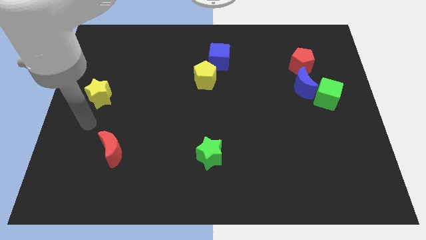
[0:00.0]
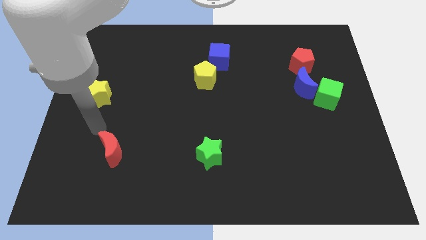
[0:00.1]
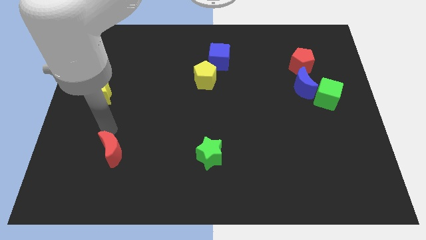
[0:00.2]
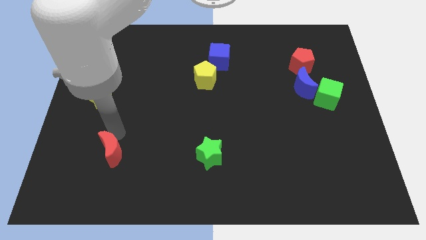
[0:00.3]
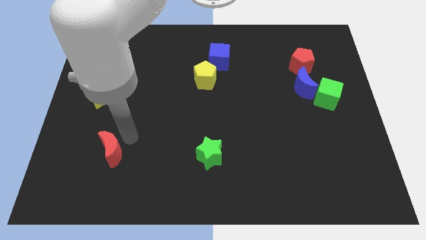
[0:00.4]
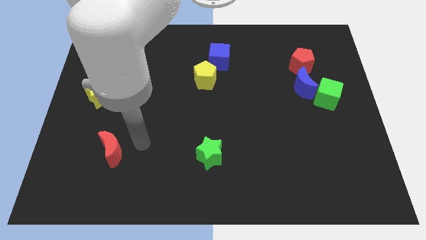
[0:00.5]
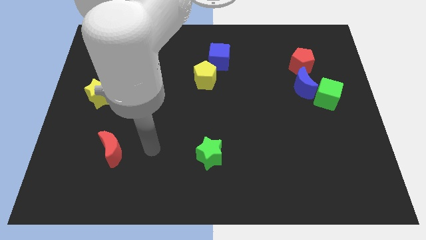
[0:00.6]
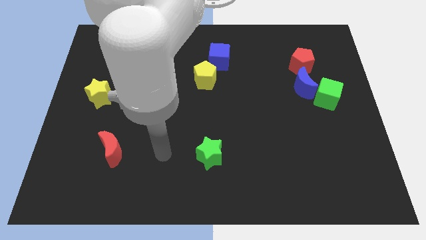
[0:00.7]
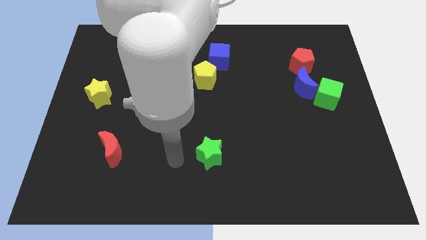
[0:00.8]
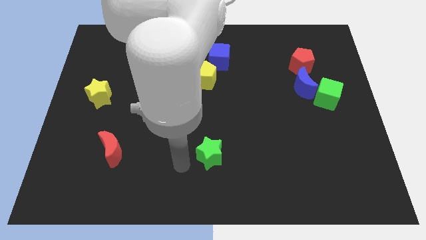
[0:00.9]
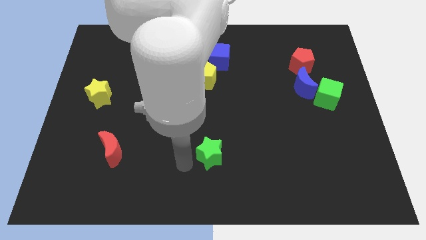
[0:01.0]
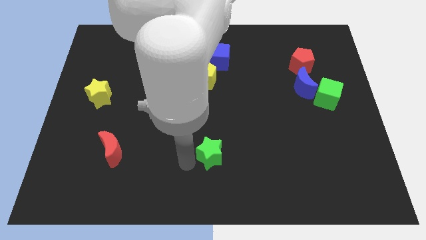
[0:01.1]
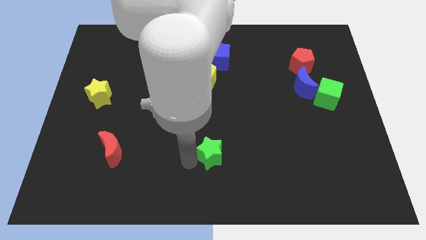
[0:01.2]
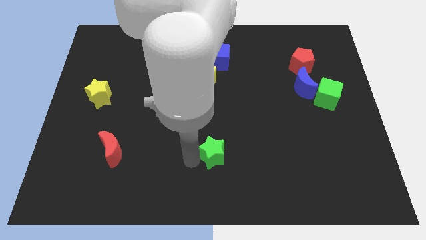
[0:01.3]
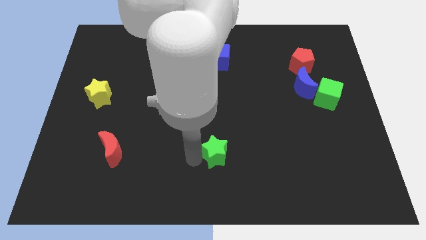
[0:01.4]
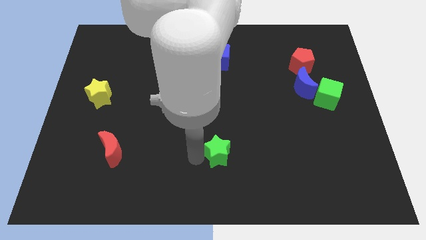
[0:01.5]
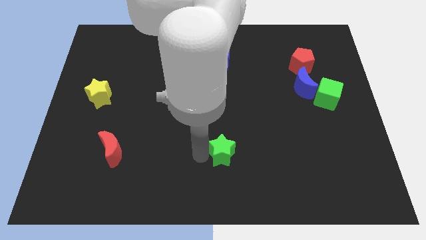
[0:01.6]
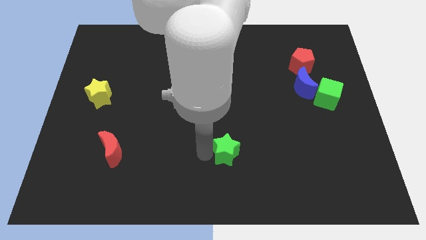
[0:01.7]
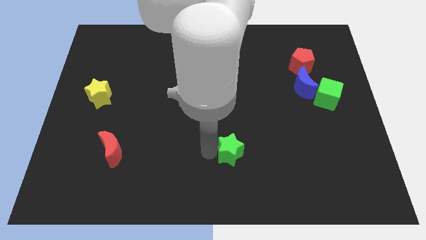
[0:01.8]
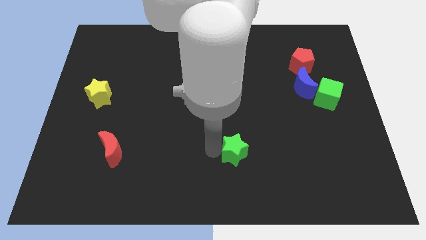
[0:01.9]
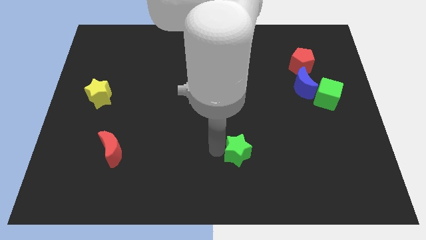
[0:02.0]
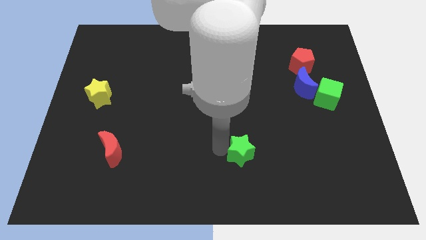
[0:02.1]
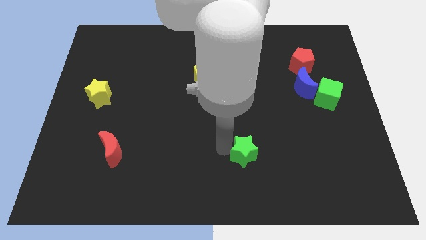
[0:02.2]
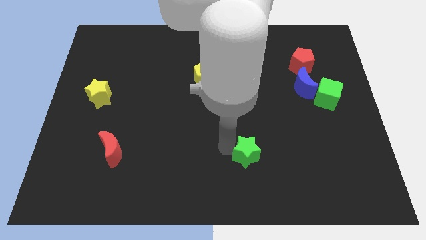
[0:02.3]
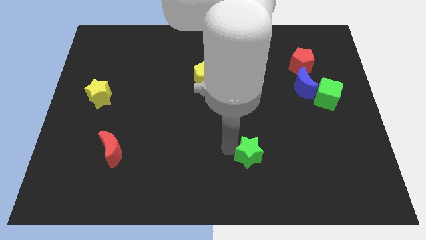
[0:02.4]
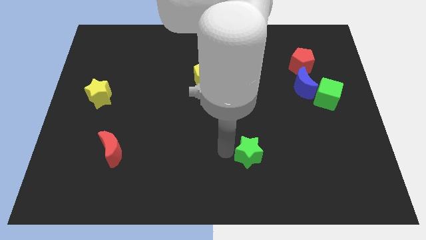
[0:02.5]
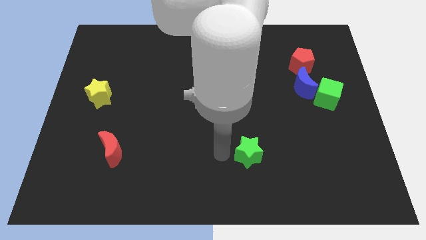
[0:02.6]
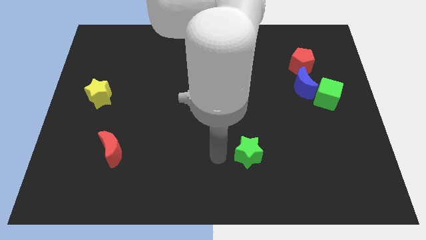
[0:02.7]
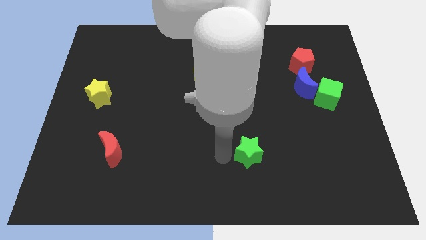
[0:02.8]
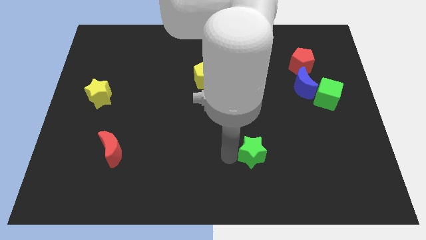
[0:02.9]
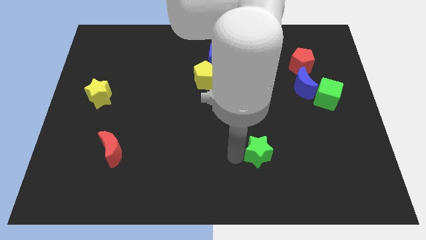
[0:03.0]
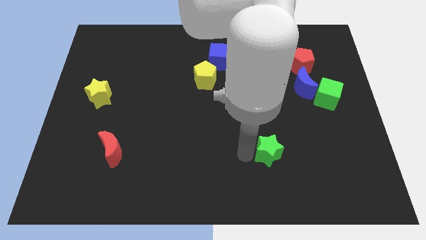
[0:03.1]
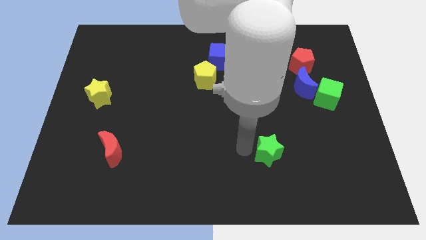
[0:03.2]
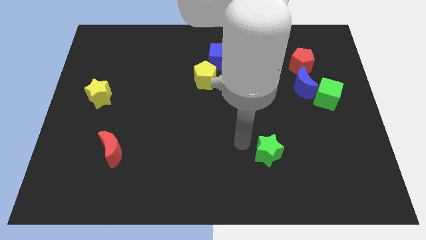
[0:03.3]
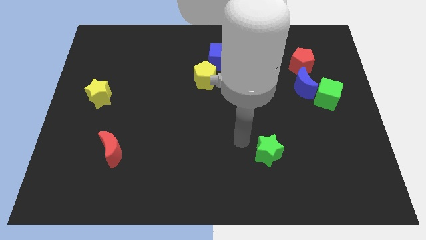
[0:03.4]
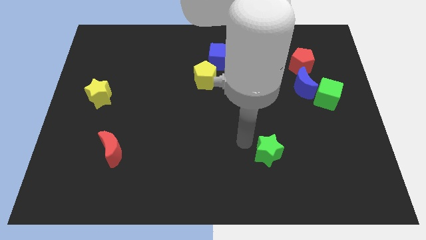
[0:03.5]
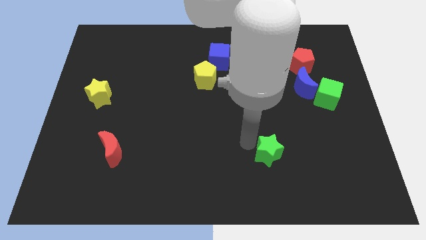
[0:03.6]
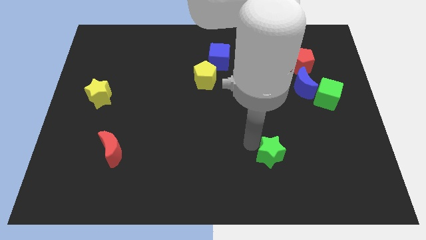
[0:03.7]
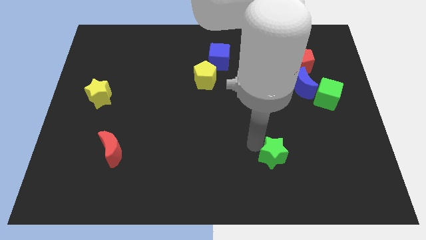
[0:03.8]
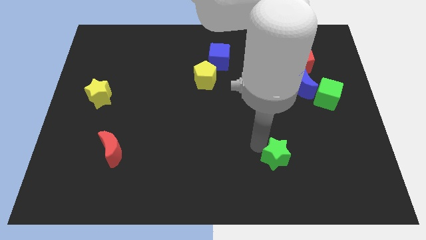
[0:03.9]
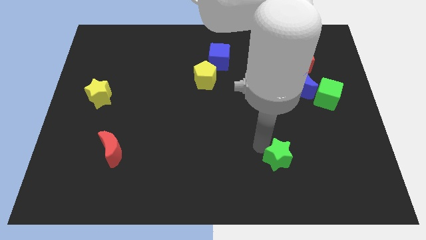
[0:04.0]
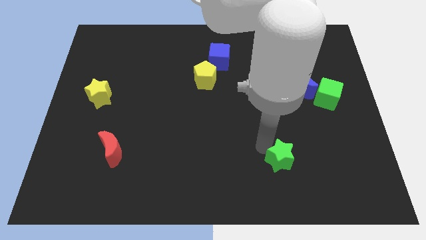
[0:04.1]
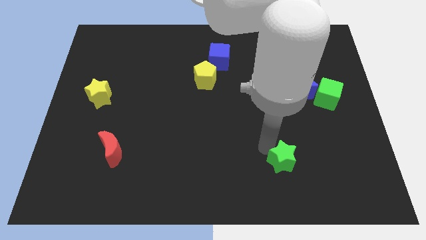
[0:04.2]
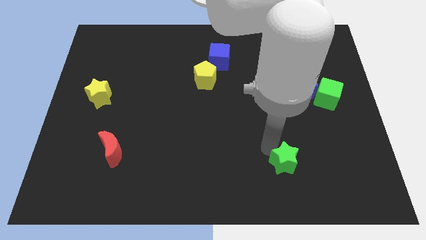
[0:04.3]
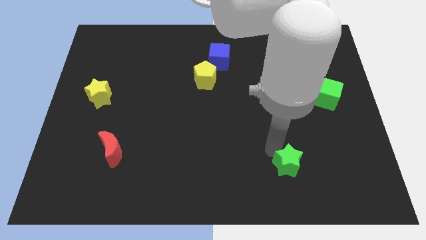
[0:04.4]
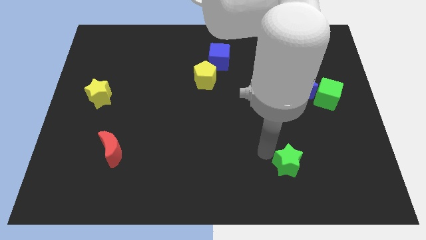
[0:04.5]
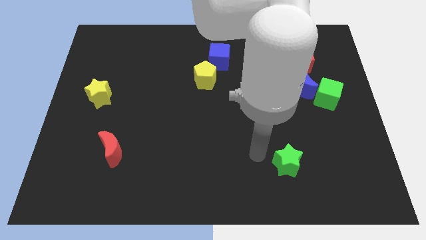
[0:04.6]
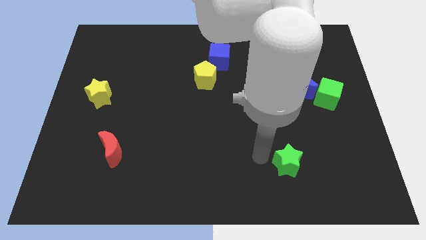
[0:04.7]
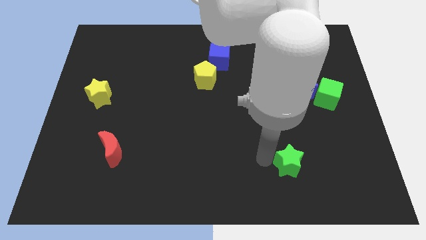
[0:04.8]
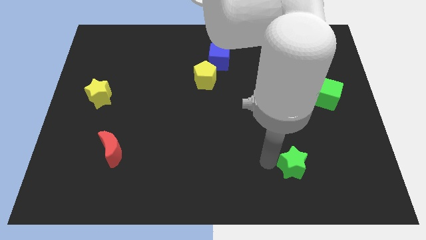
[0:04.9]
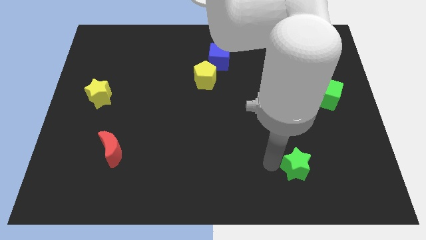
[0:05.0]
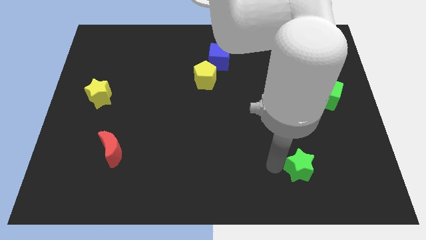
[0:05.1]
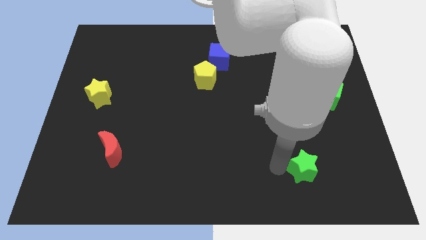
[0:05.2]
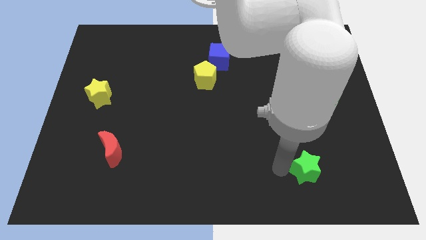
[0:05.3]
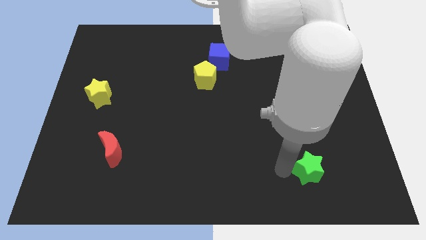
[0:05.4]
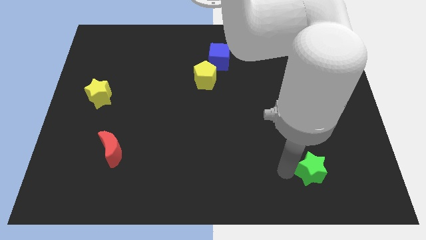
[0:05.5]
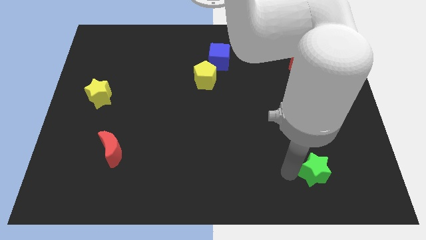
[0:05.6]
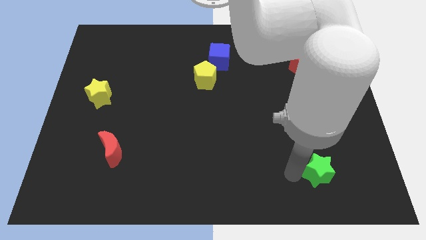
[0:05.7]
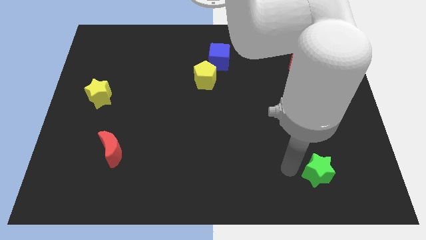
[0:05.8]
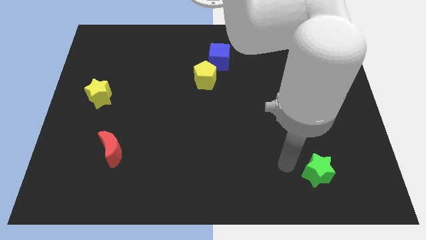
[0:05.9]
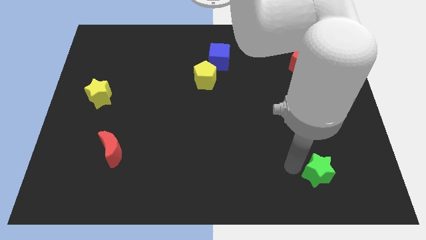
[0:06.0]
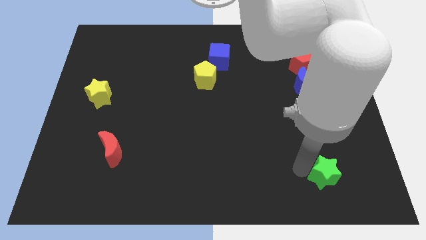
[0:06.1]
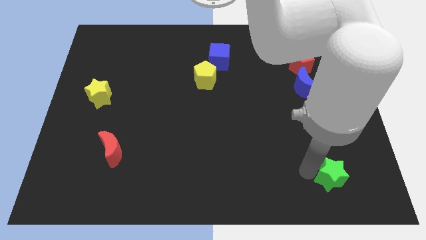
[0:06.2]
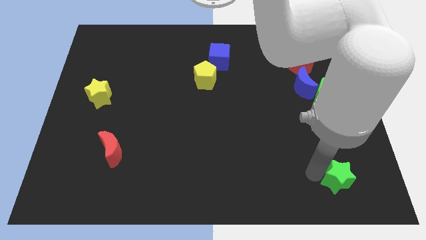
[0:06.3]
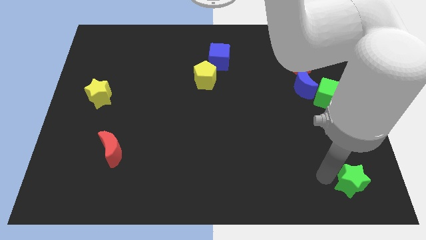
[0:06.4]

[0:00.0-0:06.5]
slide the green star to the bottom right

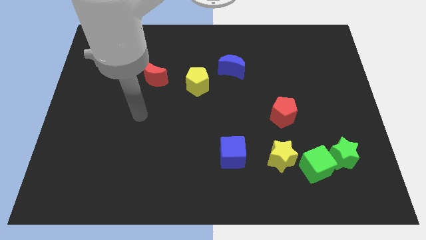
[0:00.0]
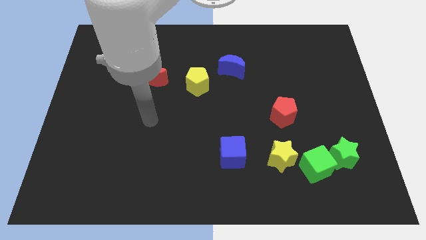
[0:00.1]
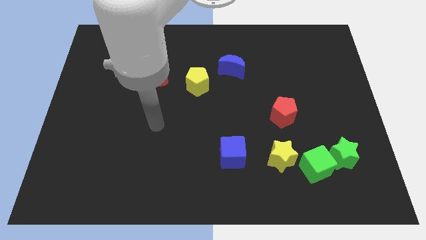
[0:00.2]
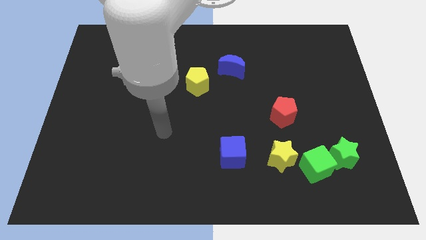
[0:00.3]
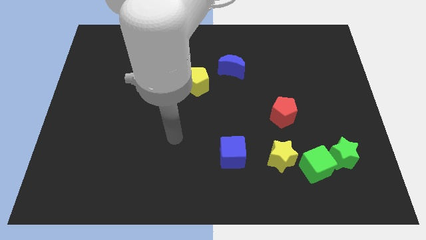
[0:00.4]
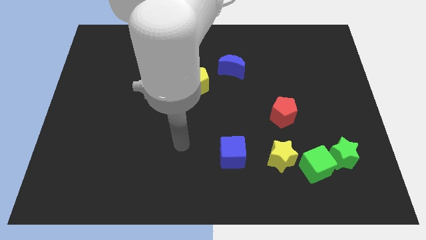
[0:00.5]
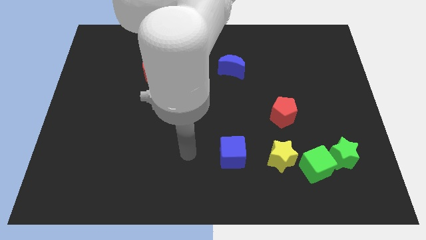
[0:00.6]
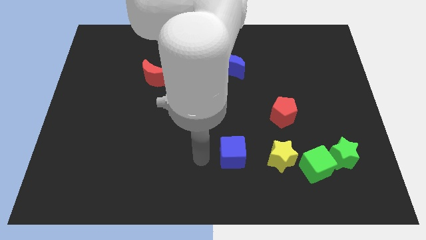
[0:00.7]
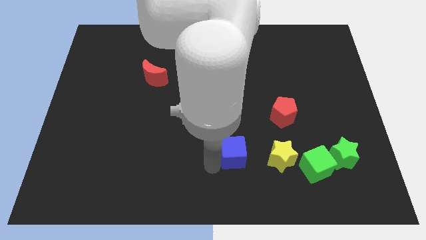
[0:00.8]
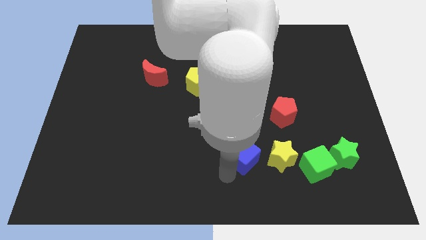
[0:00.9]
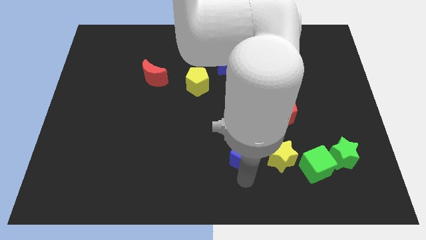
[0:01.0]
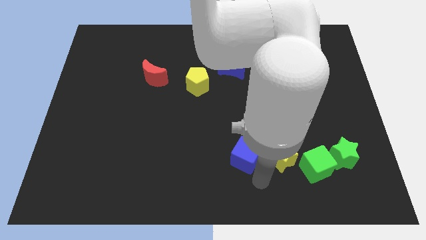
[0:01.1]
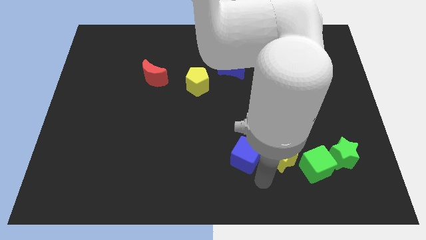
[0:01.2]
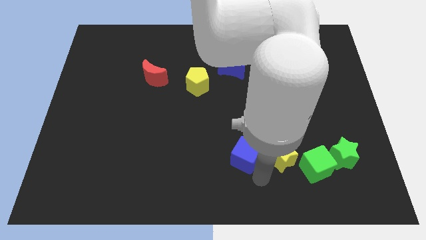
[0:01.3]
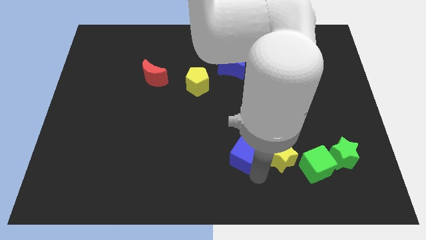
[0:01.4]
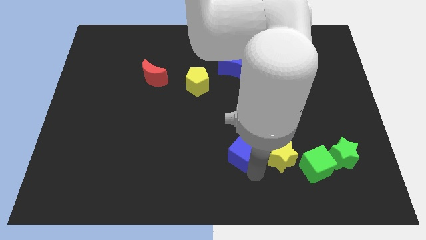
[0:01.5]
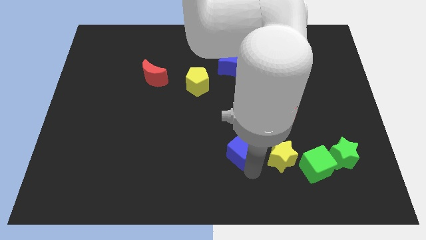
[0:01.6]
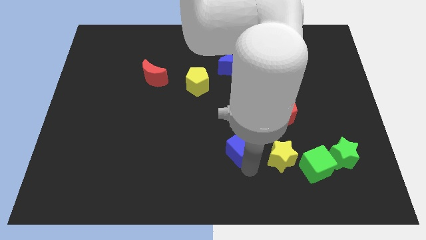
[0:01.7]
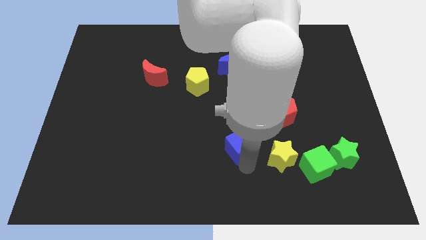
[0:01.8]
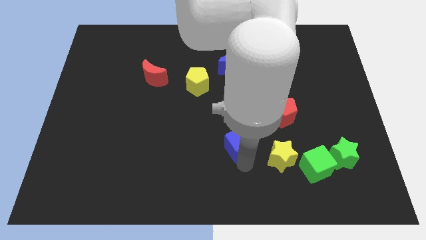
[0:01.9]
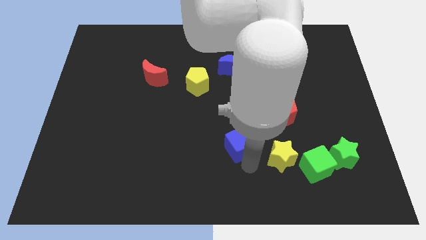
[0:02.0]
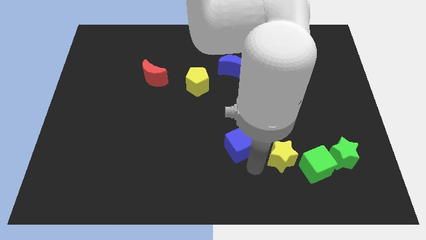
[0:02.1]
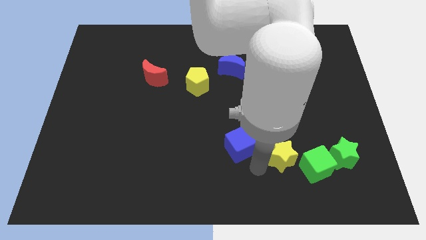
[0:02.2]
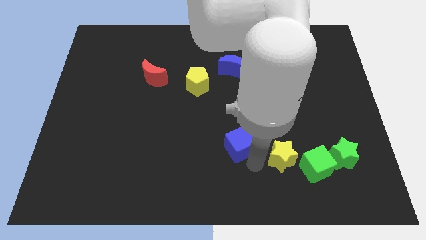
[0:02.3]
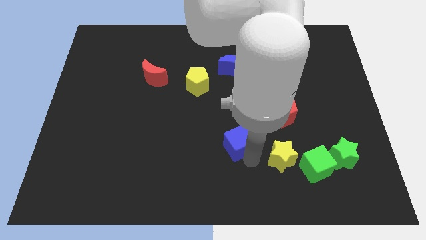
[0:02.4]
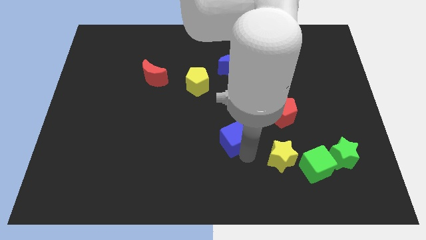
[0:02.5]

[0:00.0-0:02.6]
put the blue cube to the center
